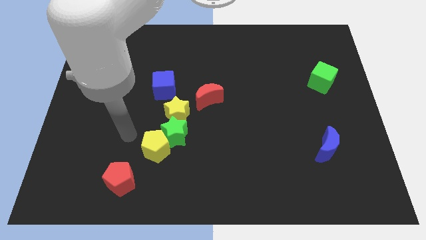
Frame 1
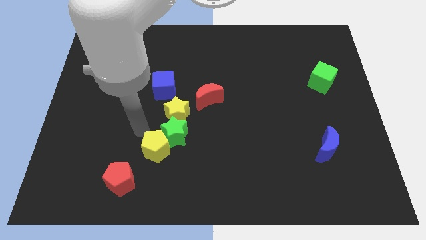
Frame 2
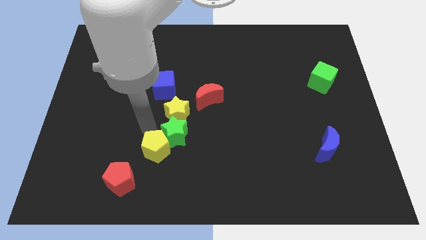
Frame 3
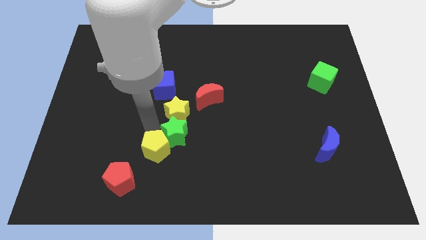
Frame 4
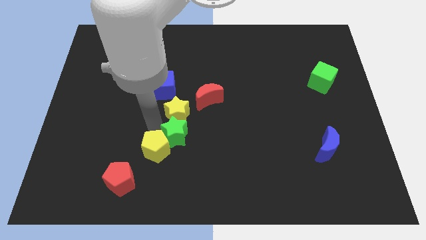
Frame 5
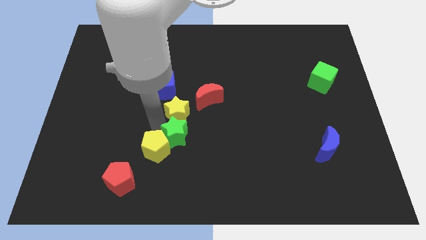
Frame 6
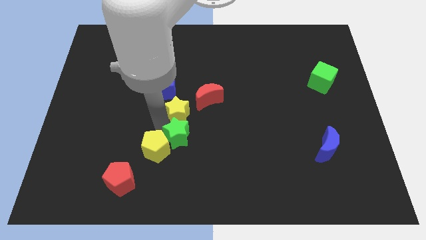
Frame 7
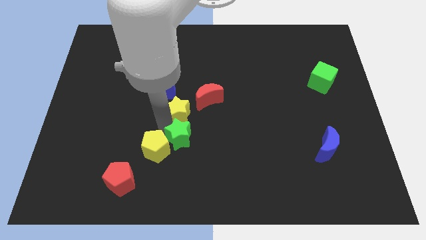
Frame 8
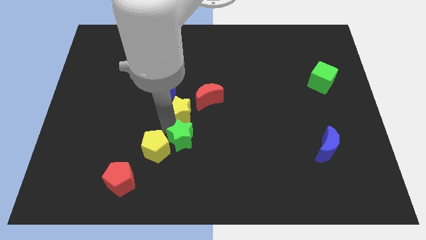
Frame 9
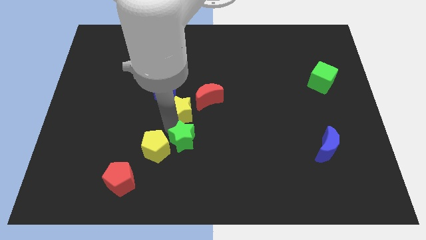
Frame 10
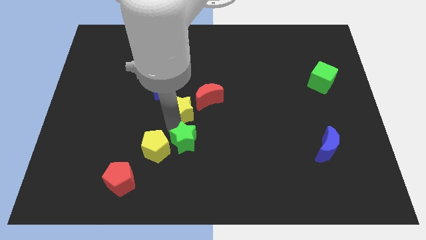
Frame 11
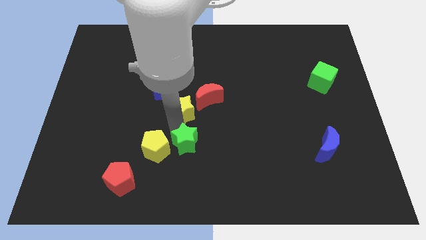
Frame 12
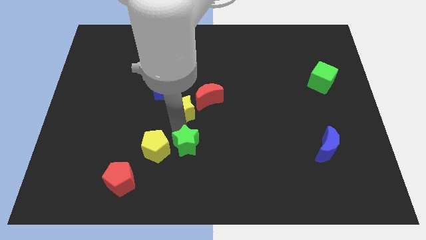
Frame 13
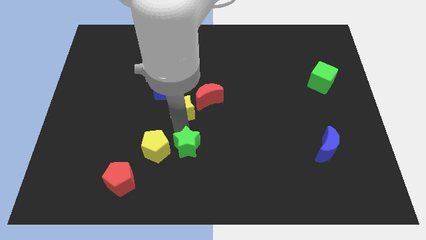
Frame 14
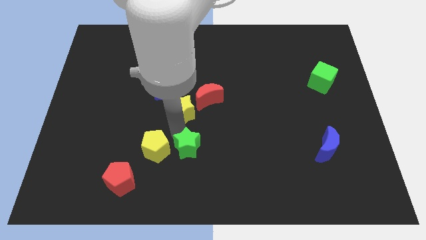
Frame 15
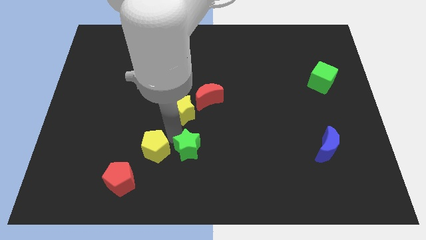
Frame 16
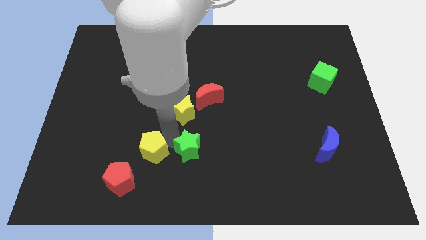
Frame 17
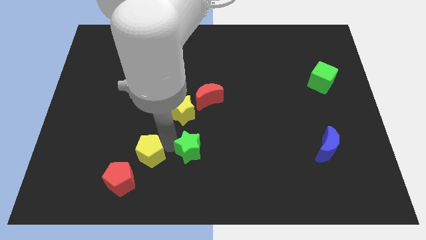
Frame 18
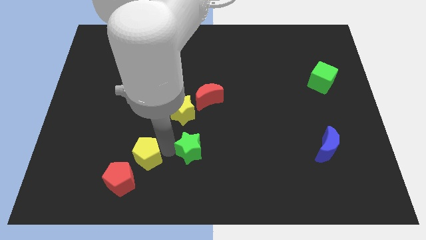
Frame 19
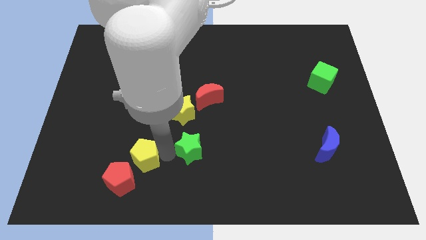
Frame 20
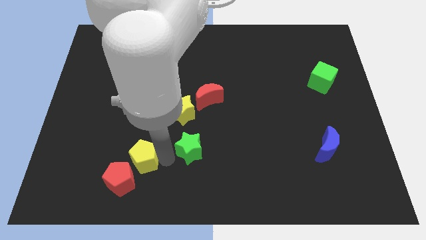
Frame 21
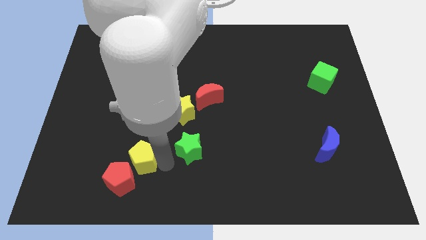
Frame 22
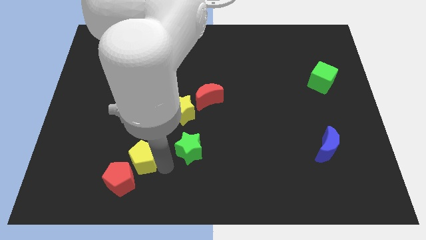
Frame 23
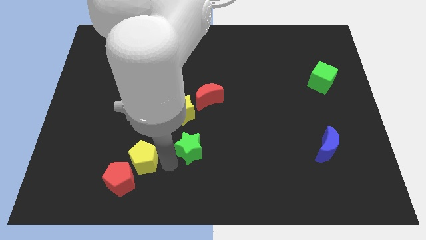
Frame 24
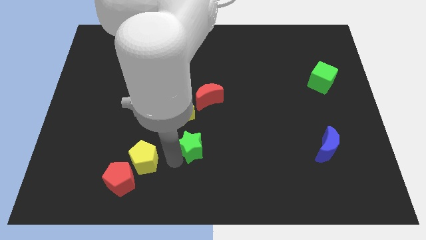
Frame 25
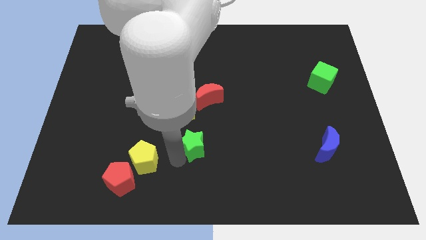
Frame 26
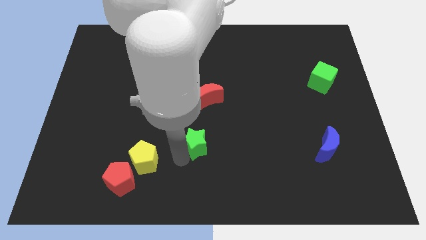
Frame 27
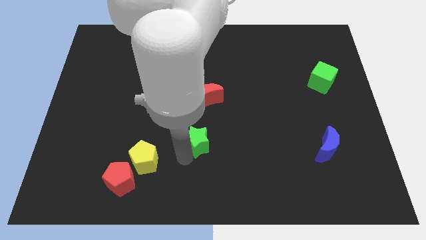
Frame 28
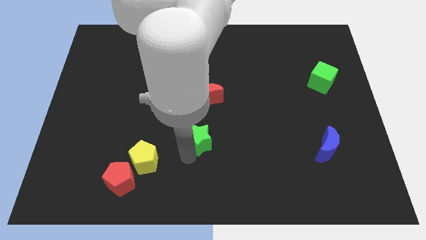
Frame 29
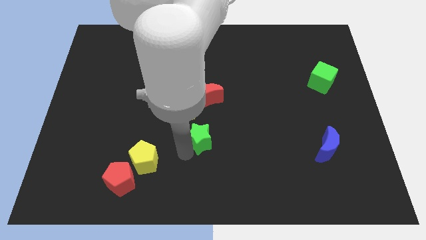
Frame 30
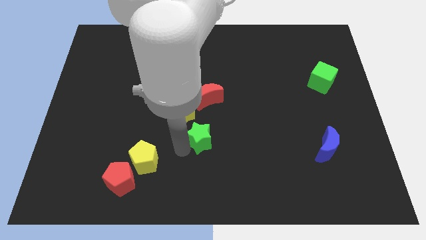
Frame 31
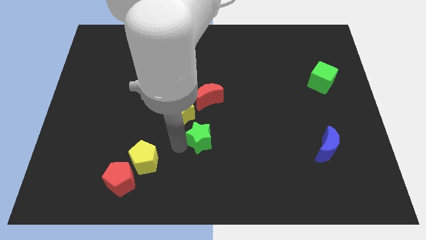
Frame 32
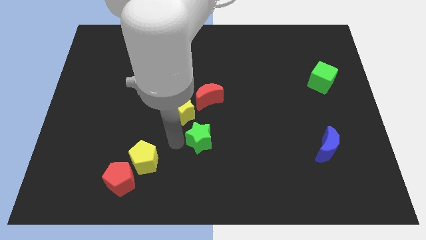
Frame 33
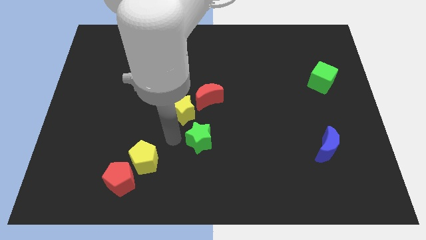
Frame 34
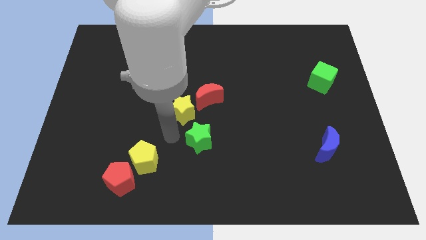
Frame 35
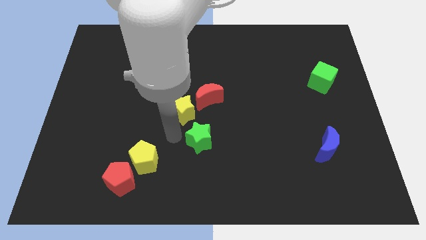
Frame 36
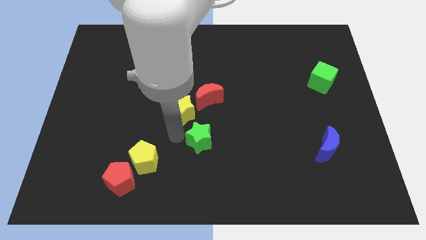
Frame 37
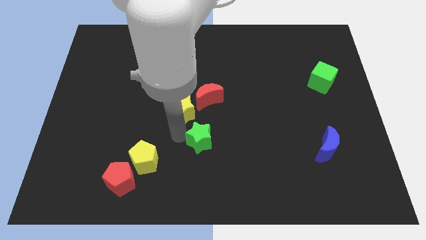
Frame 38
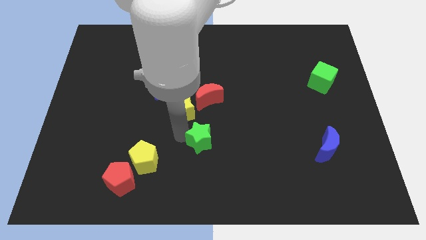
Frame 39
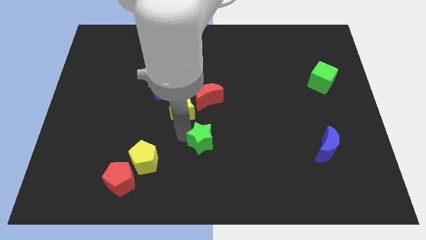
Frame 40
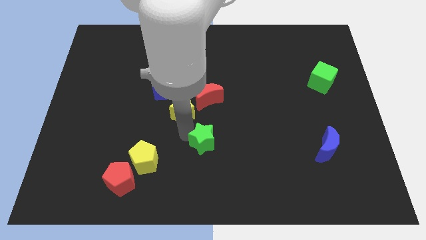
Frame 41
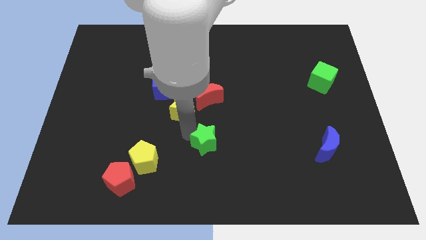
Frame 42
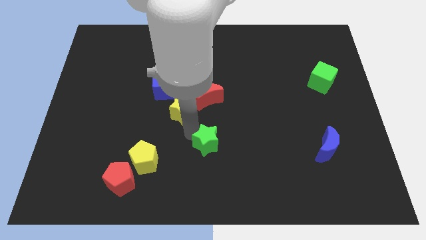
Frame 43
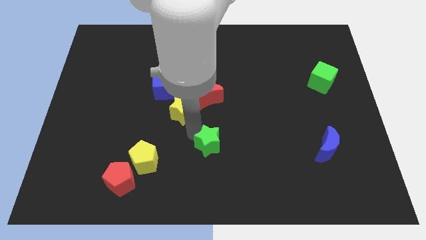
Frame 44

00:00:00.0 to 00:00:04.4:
pull the green star apart from the yellow pentagon and yellow star

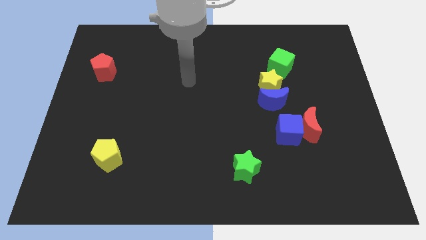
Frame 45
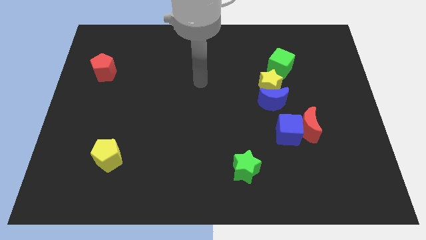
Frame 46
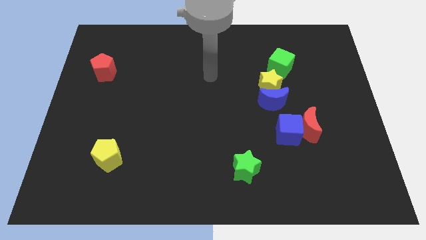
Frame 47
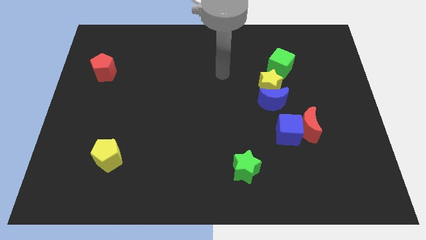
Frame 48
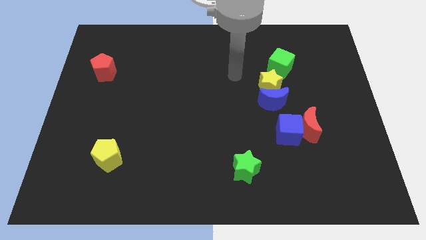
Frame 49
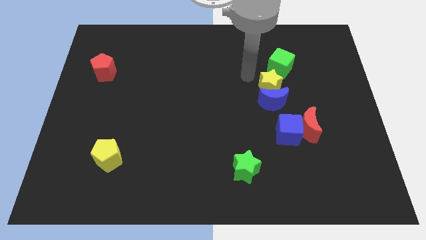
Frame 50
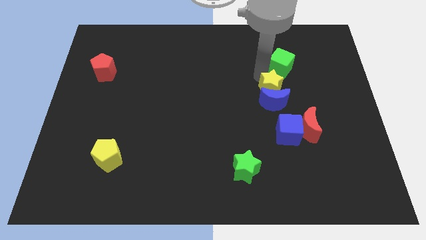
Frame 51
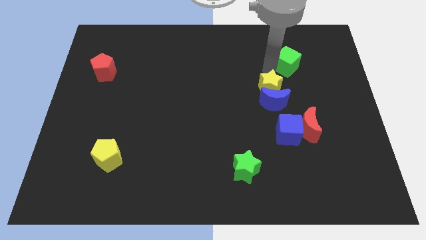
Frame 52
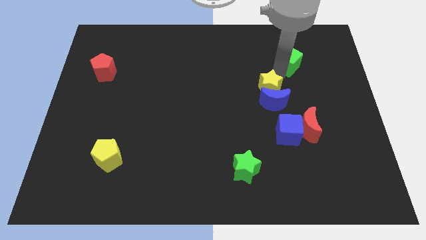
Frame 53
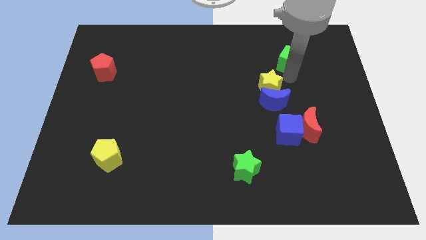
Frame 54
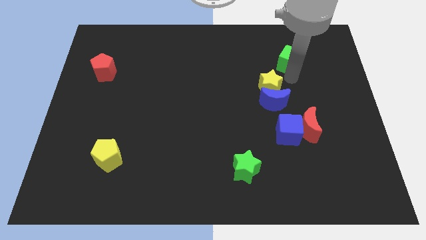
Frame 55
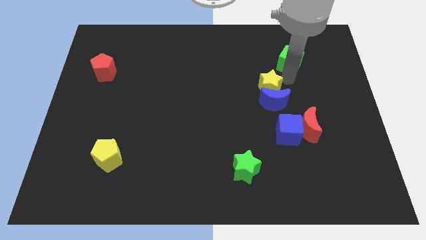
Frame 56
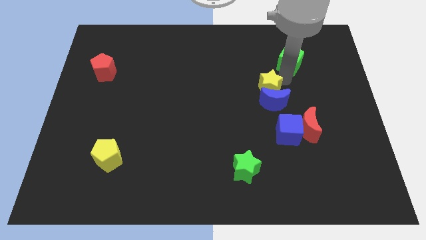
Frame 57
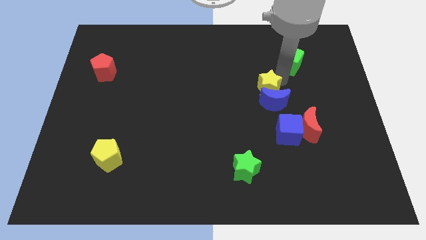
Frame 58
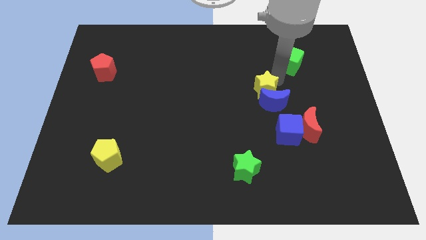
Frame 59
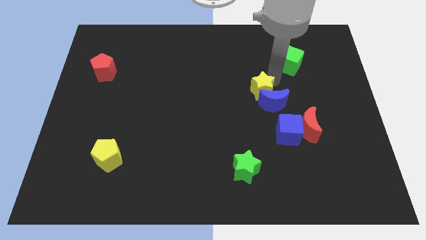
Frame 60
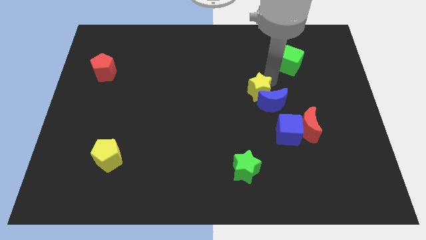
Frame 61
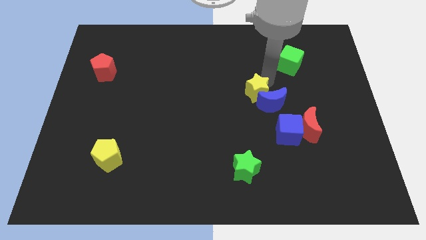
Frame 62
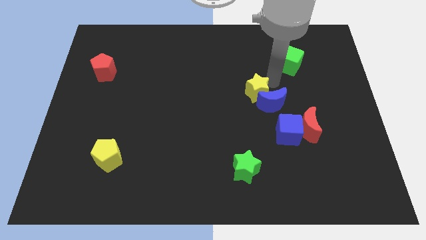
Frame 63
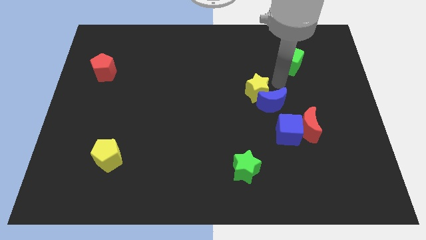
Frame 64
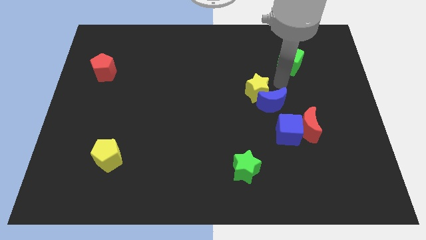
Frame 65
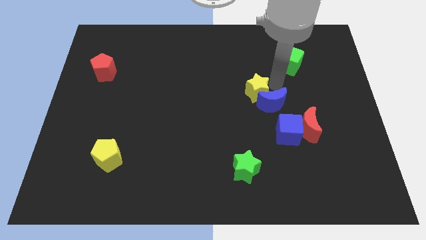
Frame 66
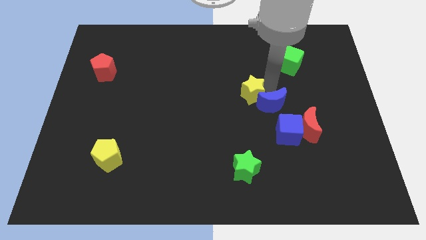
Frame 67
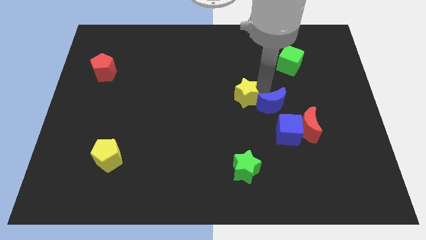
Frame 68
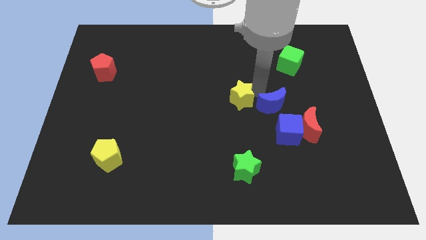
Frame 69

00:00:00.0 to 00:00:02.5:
separate the yellow star from the blue moon and green cube

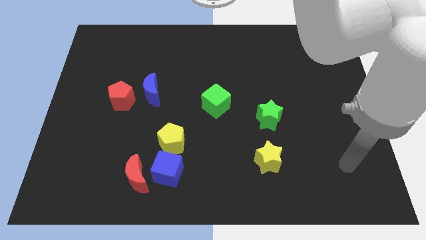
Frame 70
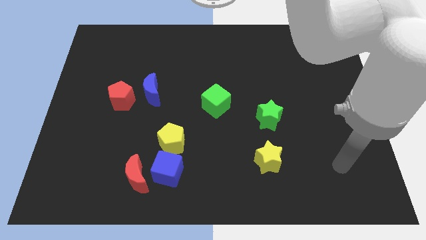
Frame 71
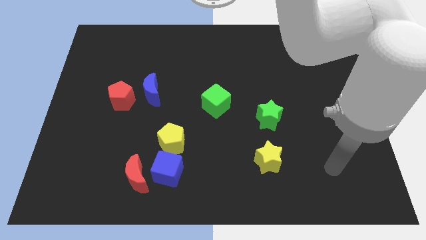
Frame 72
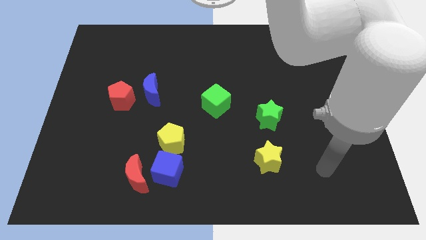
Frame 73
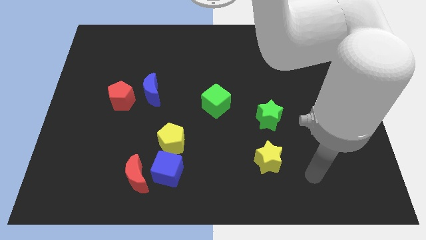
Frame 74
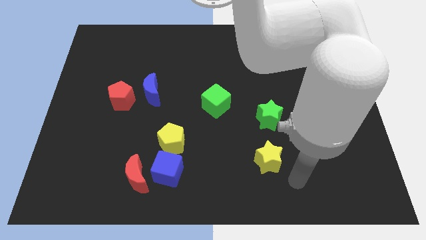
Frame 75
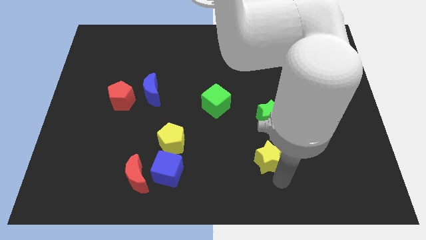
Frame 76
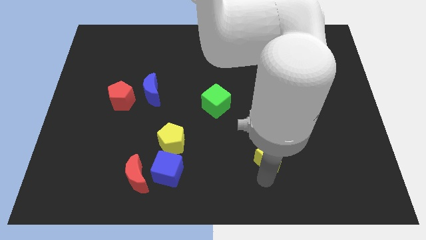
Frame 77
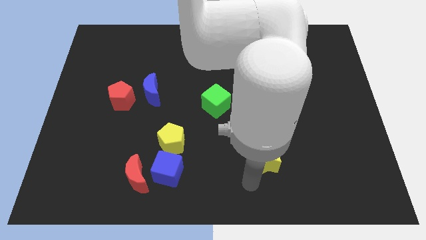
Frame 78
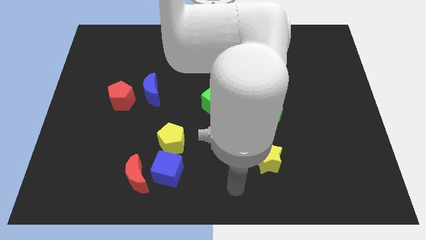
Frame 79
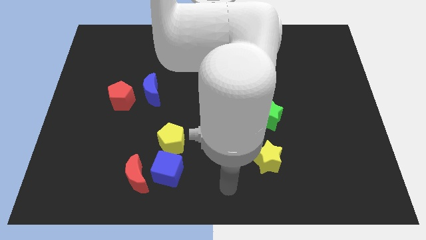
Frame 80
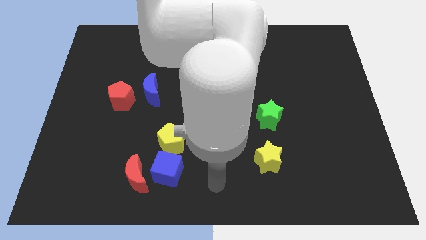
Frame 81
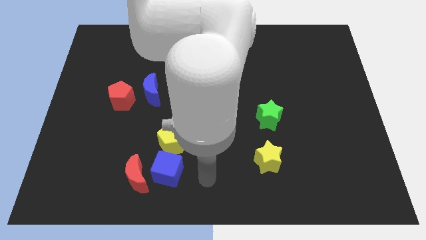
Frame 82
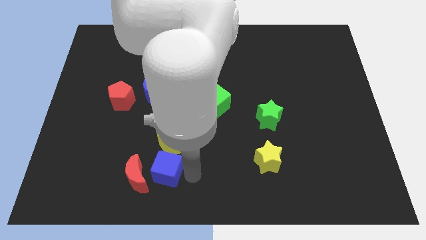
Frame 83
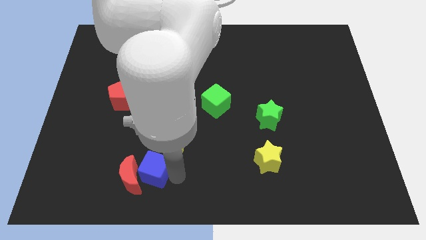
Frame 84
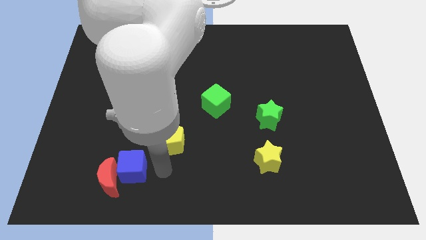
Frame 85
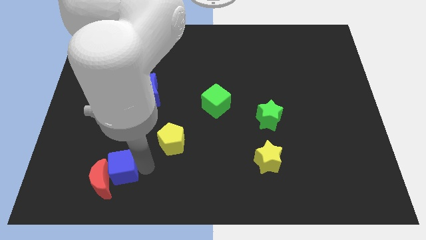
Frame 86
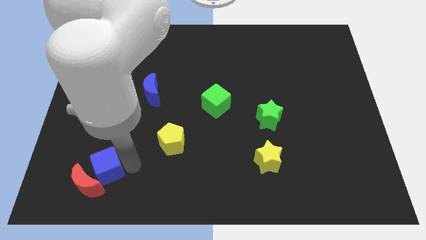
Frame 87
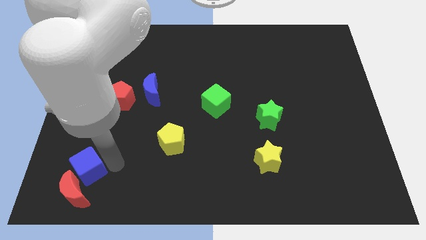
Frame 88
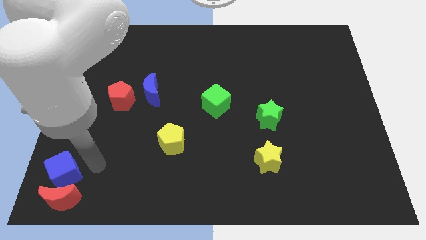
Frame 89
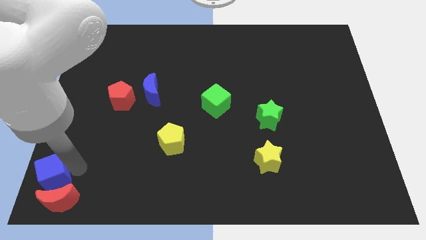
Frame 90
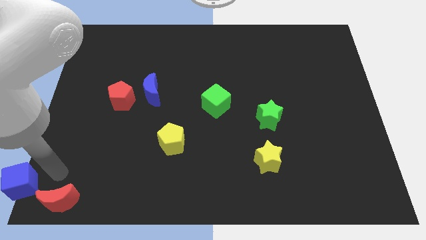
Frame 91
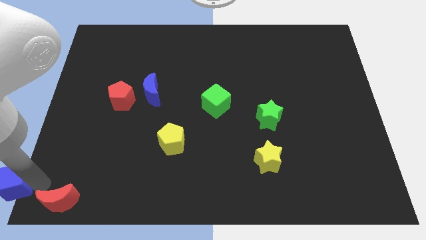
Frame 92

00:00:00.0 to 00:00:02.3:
move the red moon away from the blue cube
